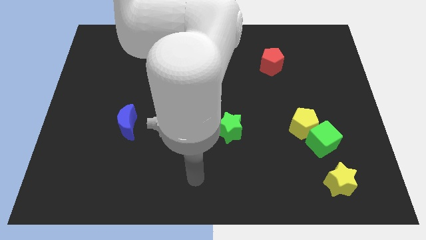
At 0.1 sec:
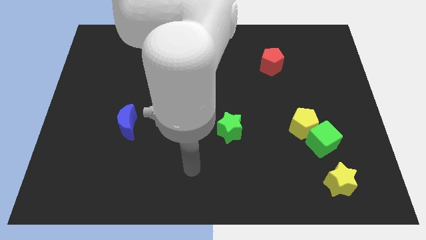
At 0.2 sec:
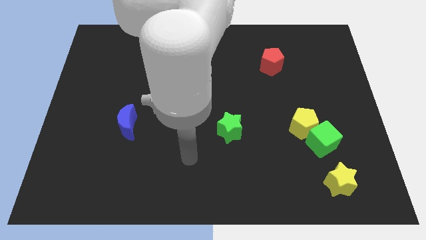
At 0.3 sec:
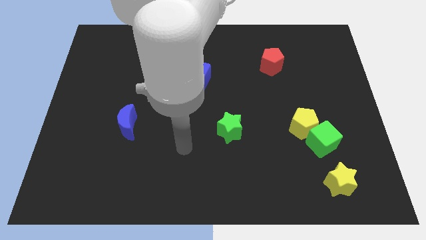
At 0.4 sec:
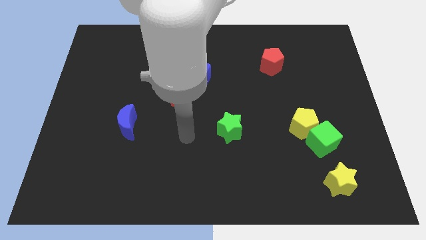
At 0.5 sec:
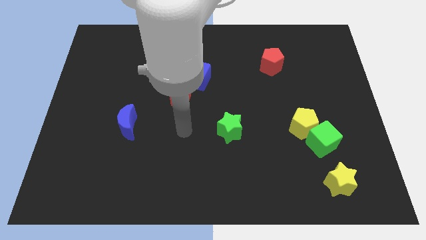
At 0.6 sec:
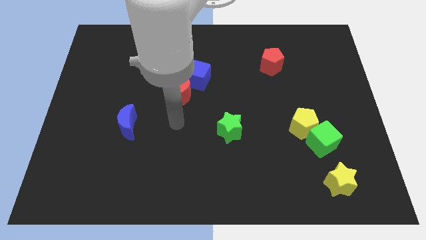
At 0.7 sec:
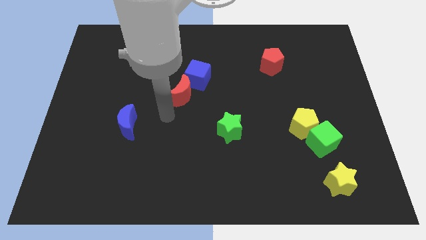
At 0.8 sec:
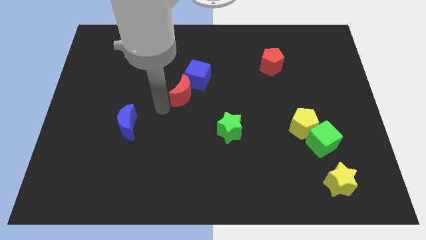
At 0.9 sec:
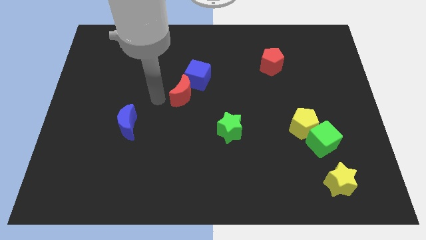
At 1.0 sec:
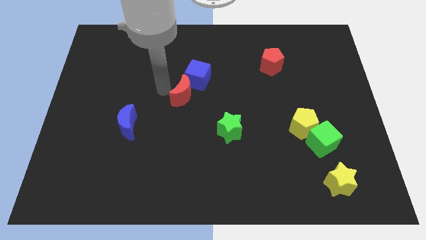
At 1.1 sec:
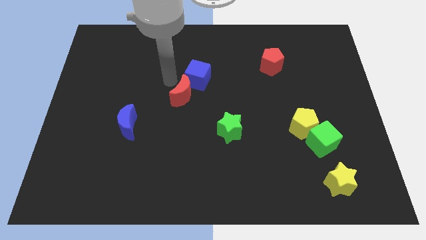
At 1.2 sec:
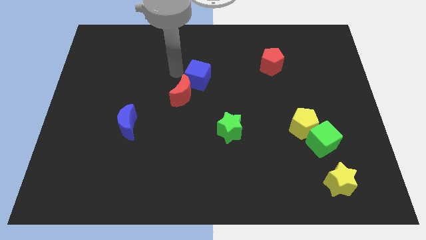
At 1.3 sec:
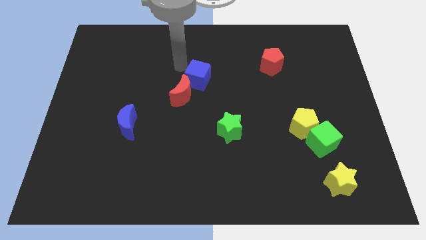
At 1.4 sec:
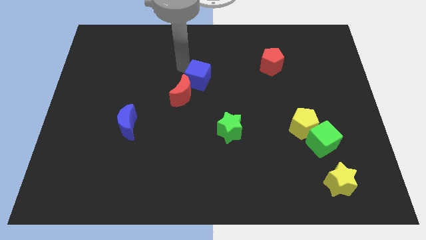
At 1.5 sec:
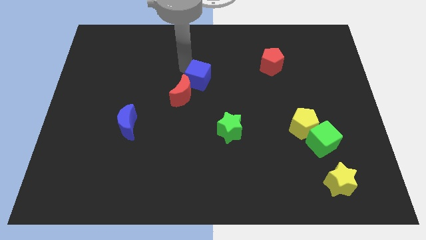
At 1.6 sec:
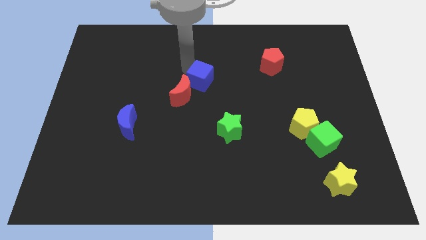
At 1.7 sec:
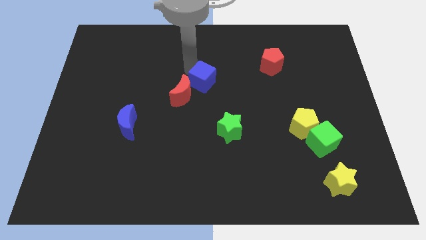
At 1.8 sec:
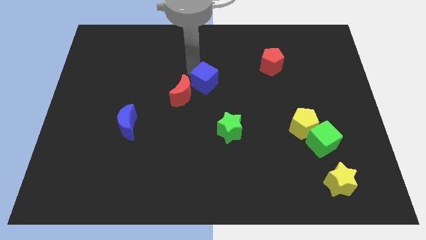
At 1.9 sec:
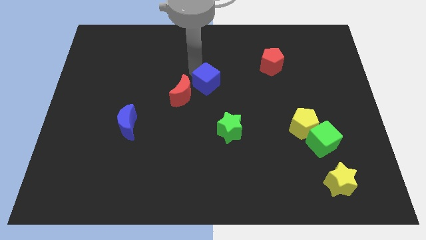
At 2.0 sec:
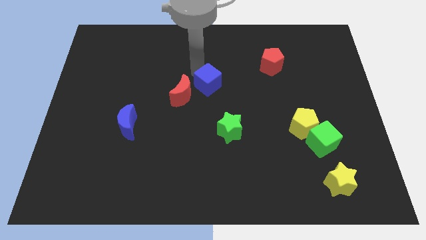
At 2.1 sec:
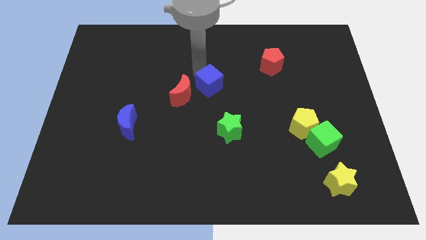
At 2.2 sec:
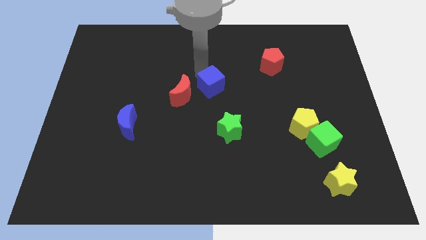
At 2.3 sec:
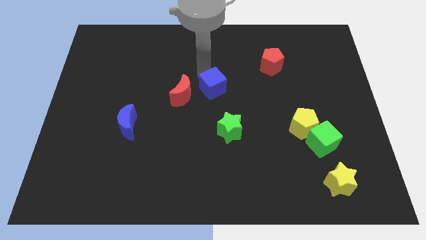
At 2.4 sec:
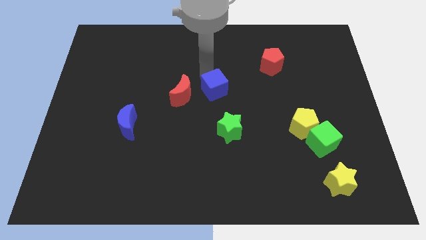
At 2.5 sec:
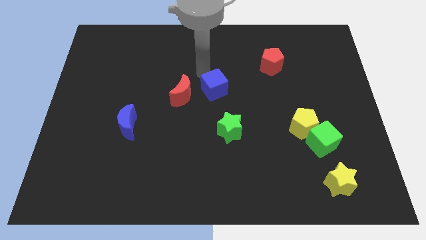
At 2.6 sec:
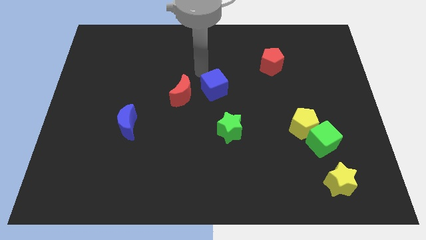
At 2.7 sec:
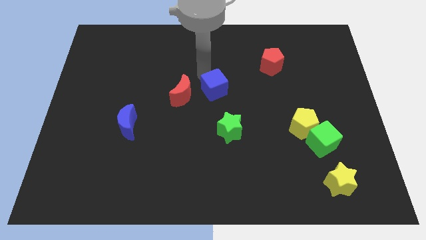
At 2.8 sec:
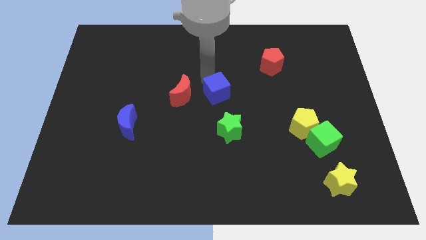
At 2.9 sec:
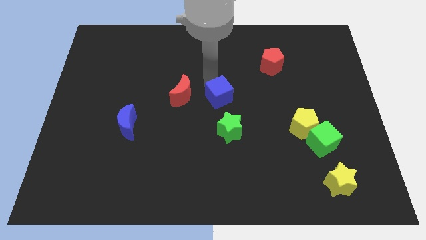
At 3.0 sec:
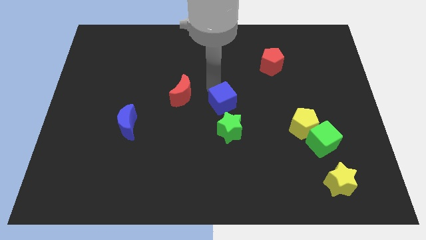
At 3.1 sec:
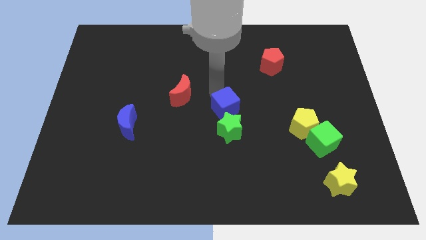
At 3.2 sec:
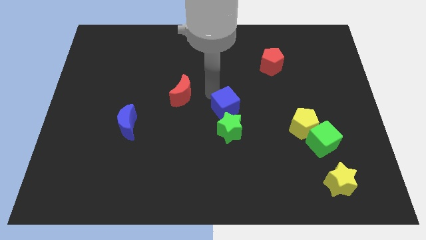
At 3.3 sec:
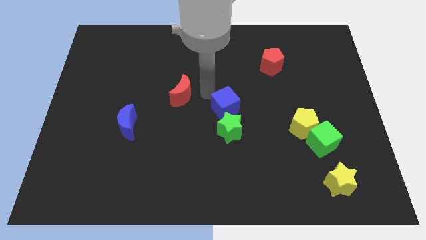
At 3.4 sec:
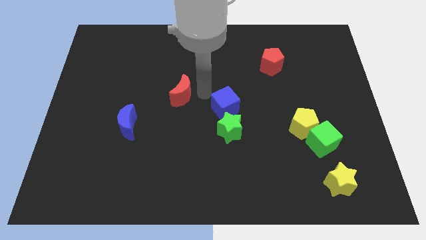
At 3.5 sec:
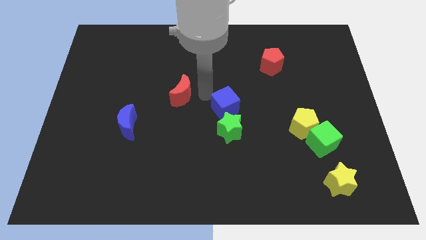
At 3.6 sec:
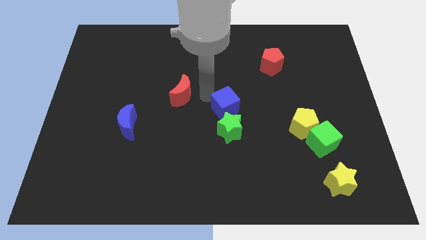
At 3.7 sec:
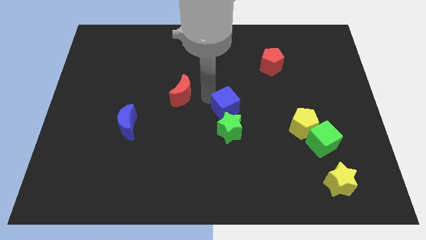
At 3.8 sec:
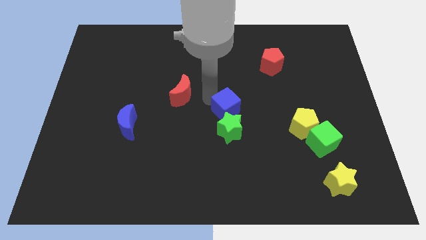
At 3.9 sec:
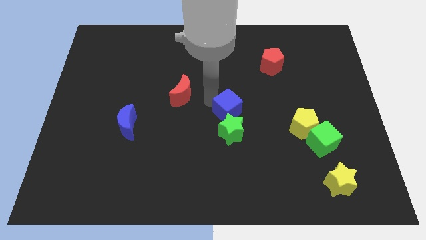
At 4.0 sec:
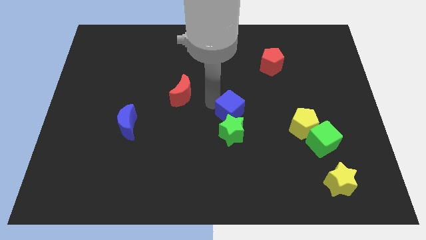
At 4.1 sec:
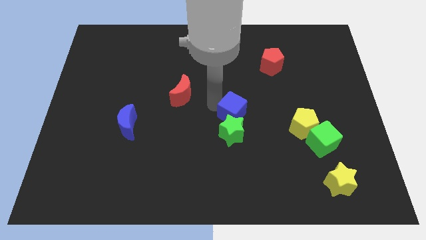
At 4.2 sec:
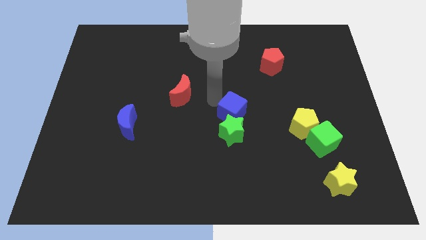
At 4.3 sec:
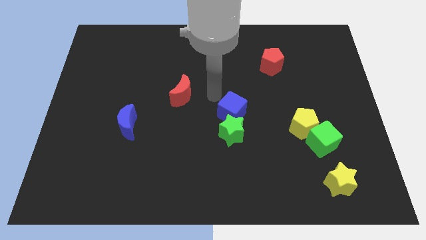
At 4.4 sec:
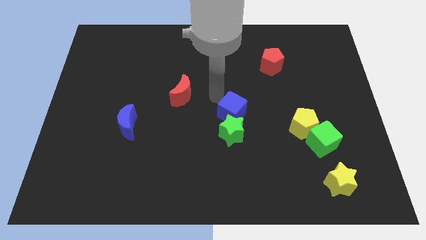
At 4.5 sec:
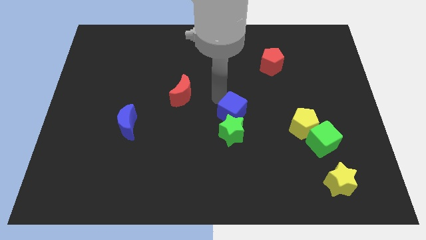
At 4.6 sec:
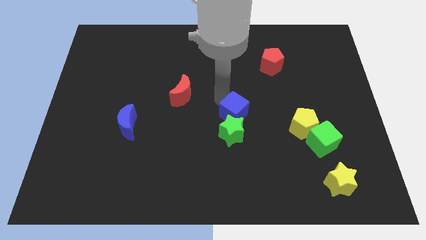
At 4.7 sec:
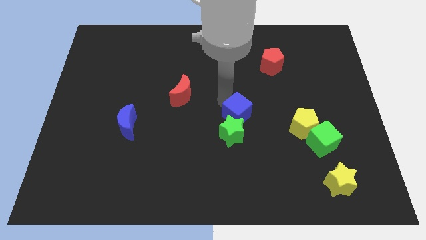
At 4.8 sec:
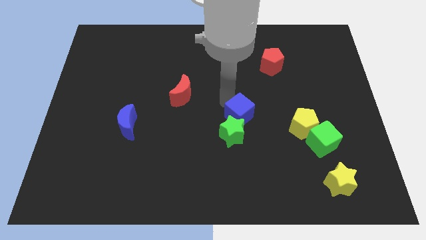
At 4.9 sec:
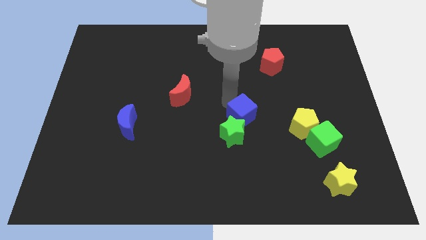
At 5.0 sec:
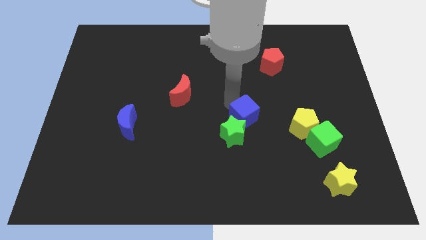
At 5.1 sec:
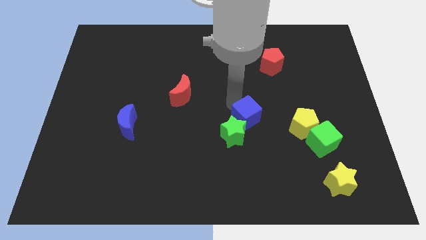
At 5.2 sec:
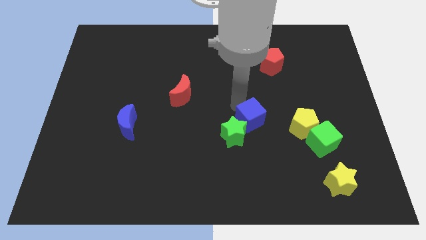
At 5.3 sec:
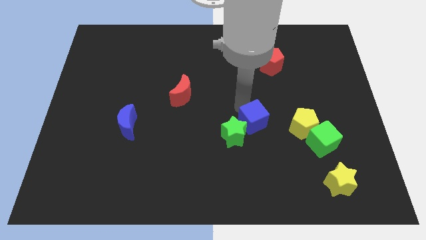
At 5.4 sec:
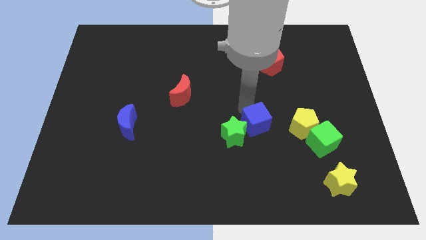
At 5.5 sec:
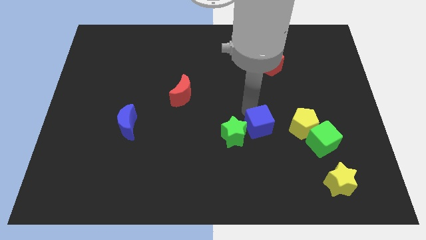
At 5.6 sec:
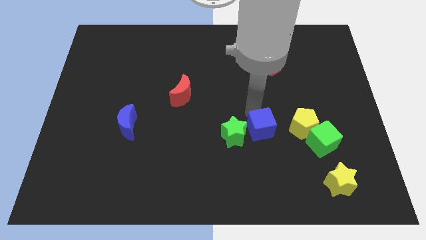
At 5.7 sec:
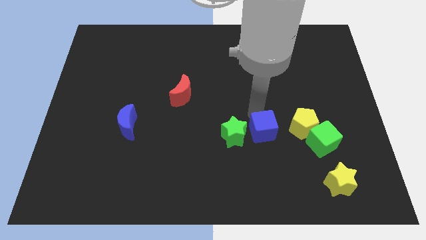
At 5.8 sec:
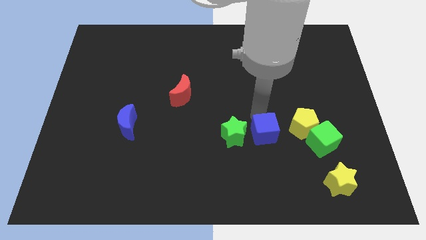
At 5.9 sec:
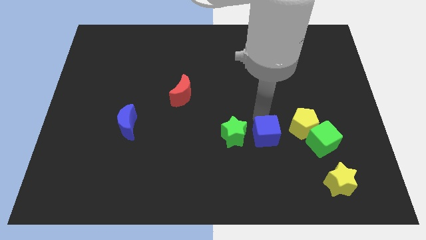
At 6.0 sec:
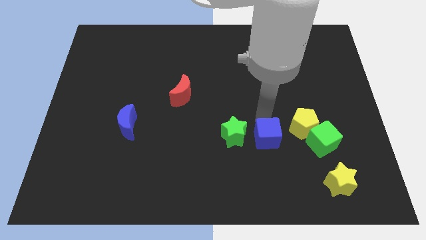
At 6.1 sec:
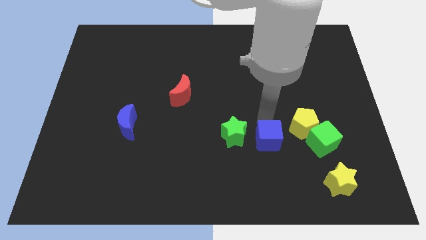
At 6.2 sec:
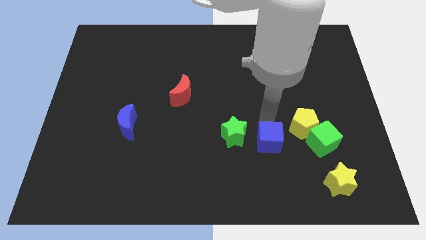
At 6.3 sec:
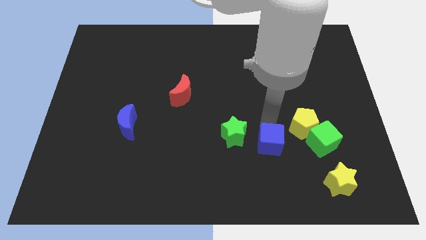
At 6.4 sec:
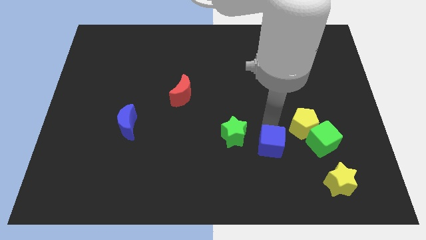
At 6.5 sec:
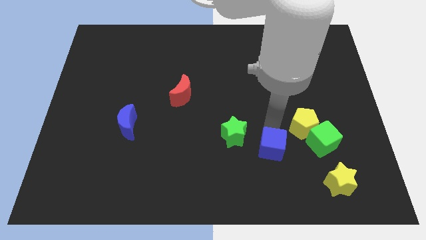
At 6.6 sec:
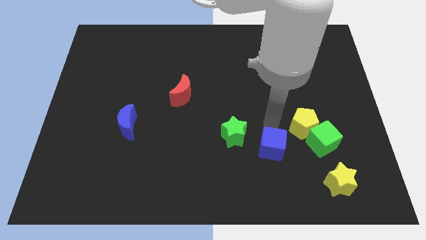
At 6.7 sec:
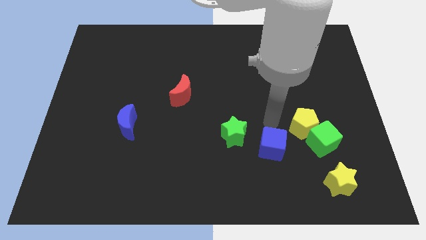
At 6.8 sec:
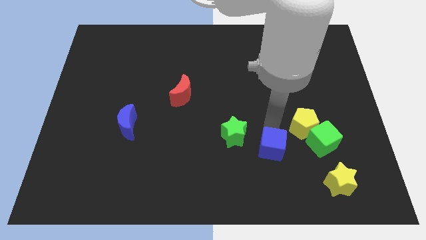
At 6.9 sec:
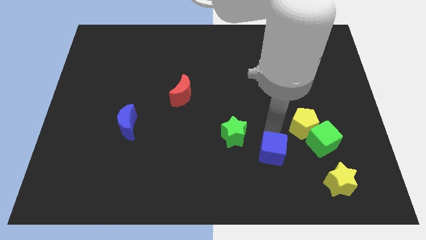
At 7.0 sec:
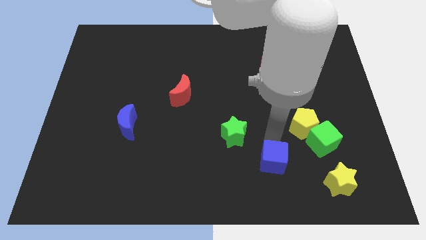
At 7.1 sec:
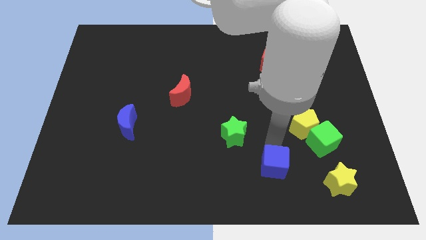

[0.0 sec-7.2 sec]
slide the blue cube to the left side of the yellow star

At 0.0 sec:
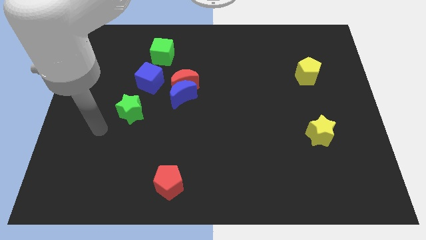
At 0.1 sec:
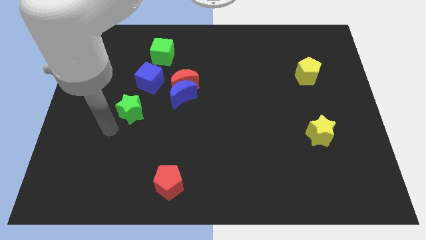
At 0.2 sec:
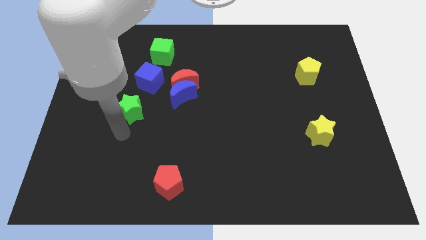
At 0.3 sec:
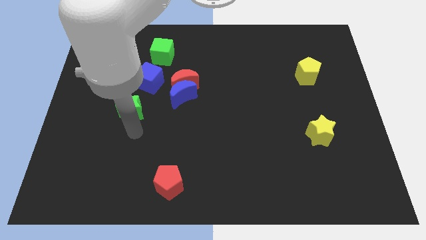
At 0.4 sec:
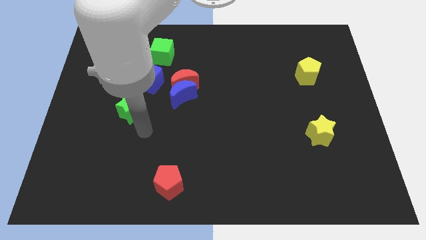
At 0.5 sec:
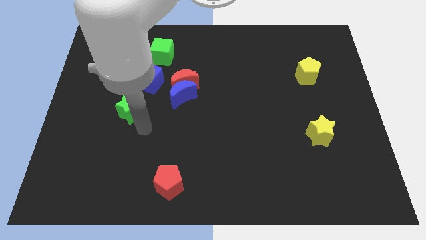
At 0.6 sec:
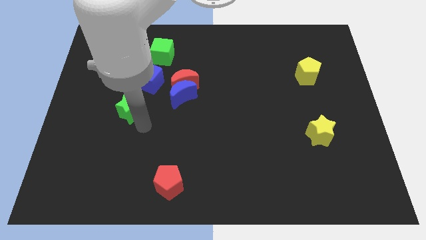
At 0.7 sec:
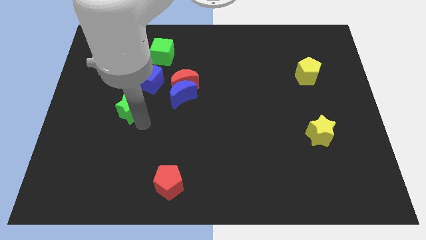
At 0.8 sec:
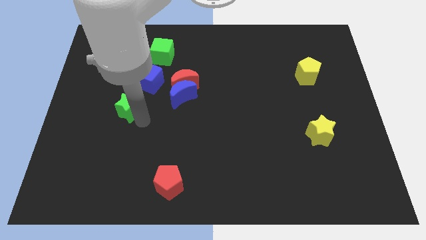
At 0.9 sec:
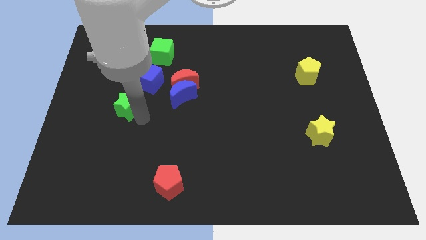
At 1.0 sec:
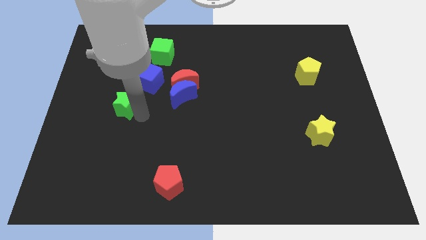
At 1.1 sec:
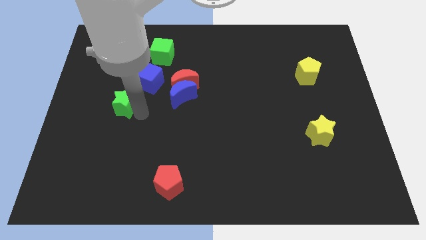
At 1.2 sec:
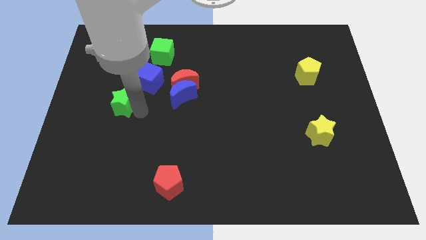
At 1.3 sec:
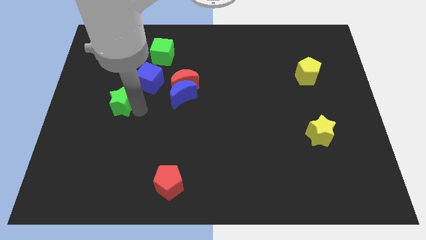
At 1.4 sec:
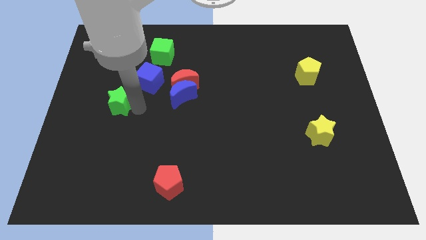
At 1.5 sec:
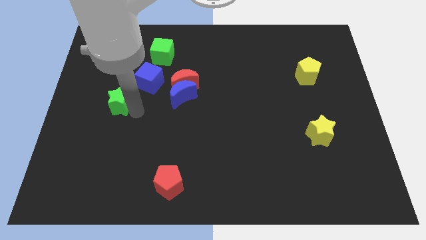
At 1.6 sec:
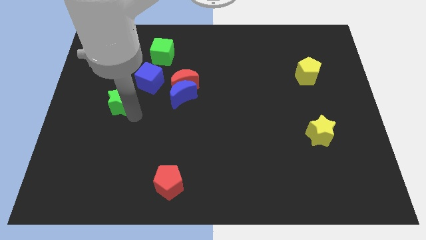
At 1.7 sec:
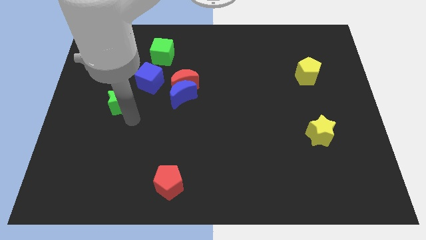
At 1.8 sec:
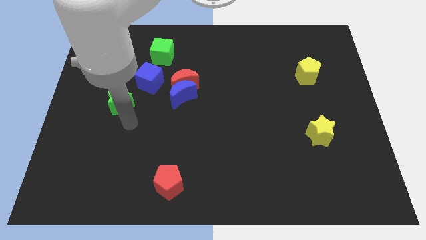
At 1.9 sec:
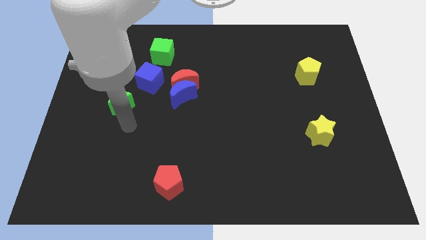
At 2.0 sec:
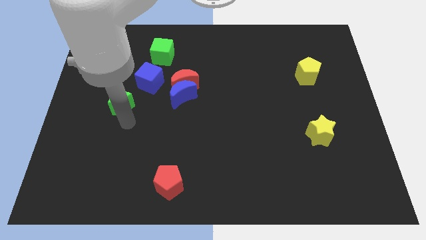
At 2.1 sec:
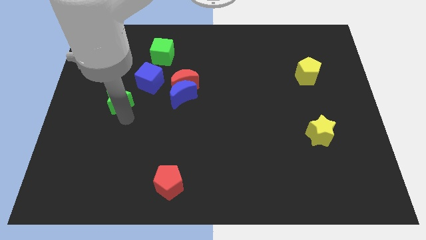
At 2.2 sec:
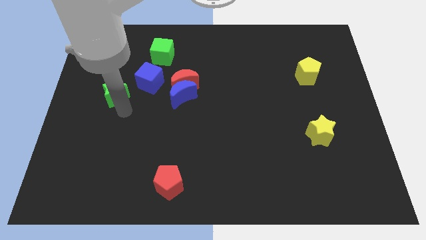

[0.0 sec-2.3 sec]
move the green star left of the blue cube
